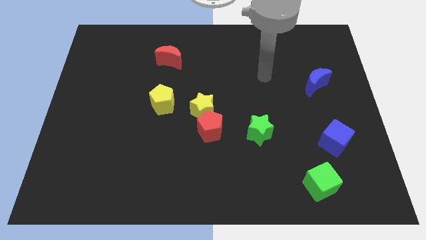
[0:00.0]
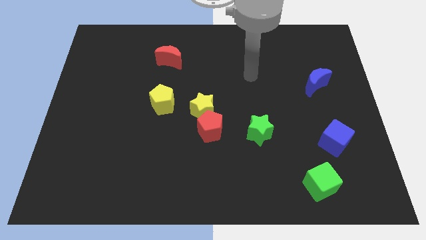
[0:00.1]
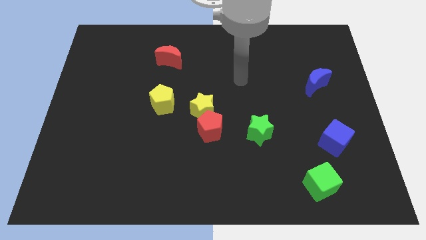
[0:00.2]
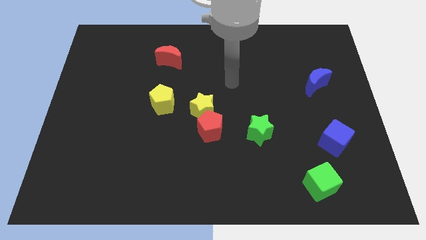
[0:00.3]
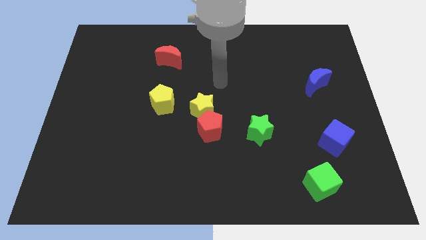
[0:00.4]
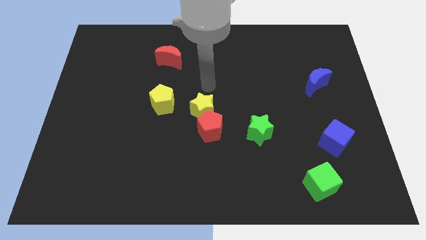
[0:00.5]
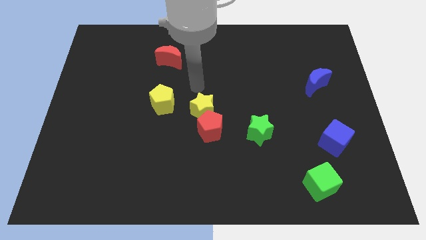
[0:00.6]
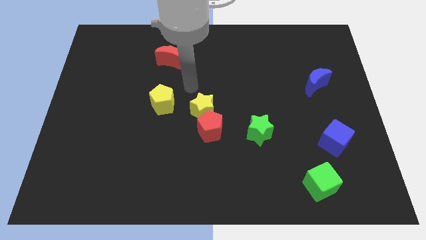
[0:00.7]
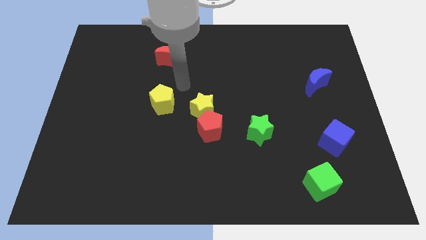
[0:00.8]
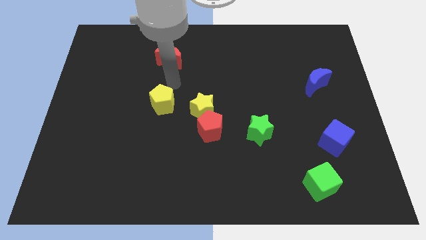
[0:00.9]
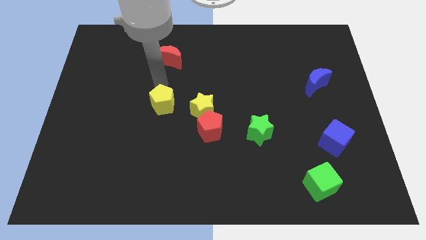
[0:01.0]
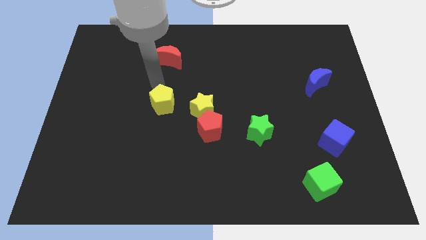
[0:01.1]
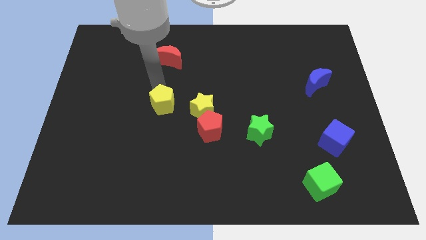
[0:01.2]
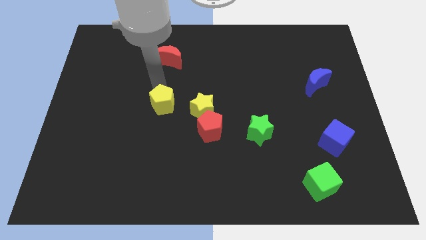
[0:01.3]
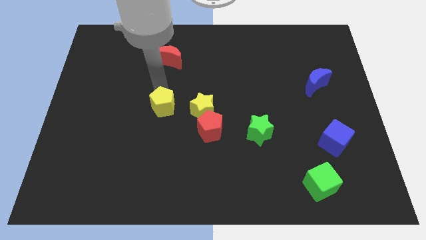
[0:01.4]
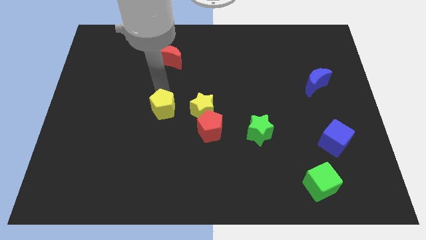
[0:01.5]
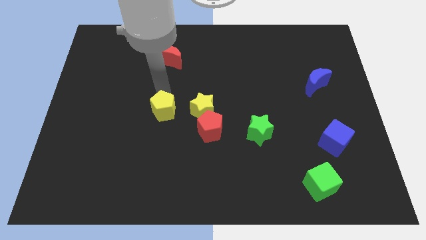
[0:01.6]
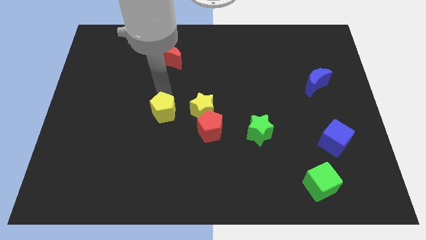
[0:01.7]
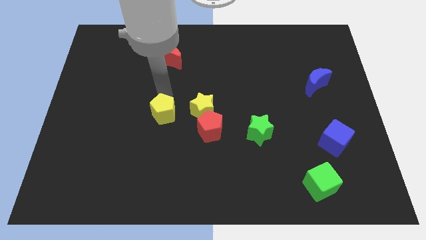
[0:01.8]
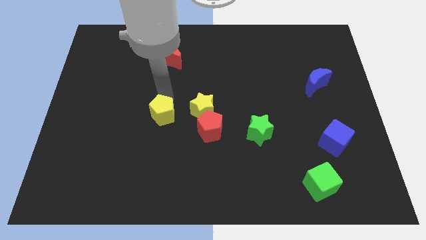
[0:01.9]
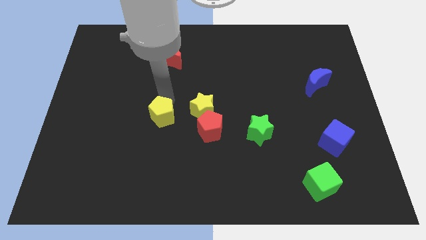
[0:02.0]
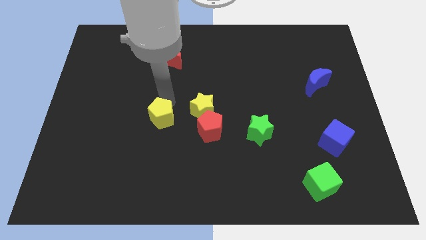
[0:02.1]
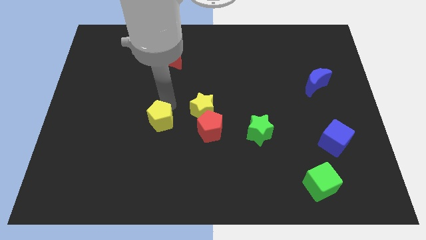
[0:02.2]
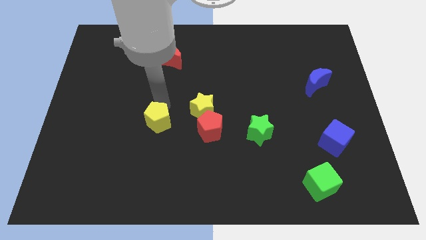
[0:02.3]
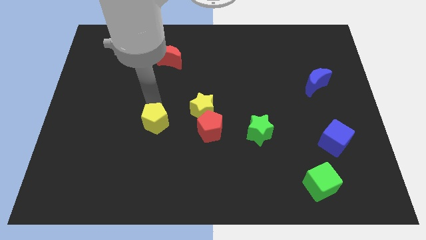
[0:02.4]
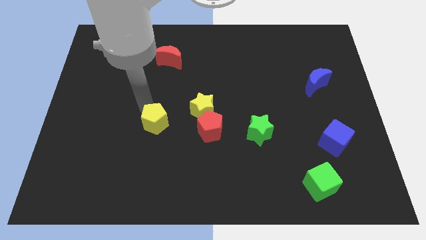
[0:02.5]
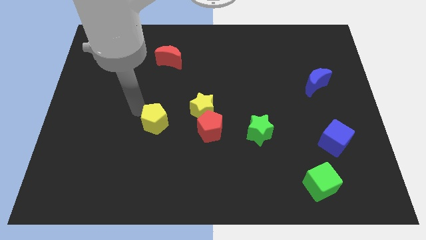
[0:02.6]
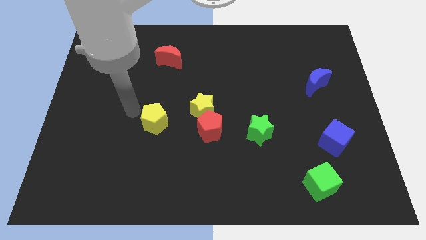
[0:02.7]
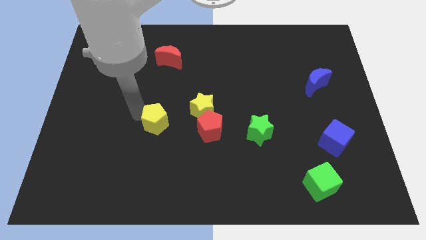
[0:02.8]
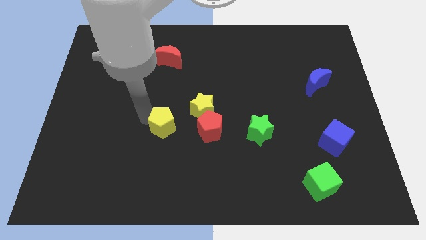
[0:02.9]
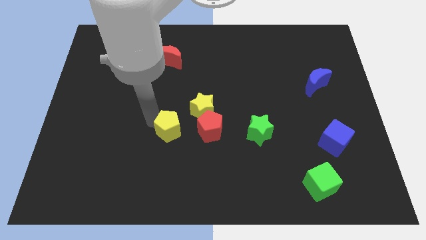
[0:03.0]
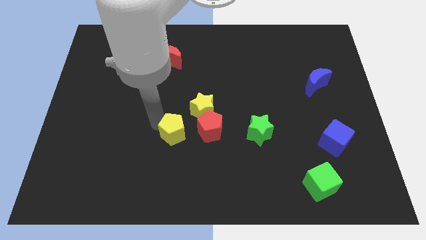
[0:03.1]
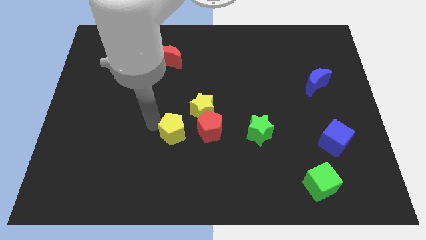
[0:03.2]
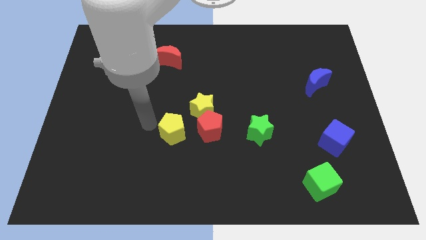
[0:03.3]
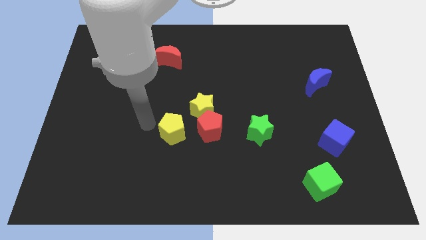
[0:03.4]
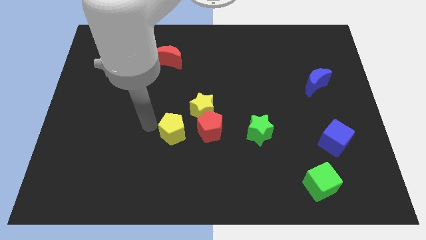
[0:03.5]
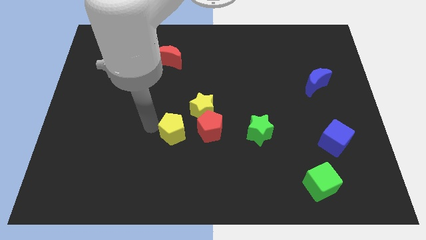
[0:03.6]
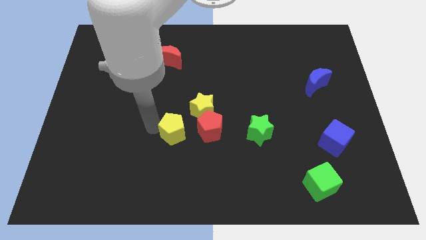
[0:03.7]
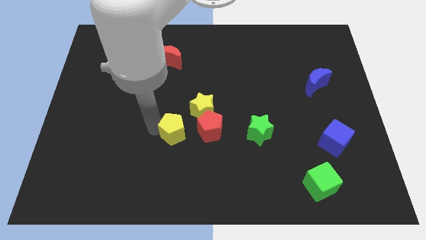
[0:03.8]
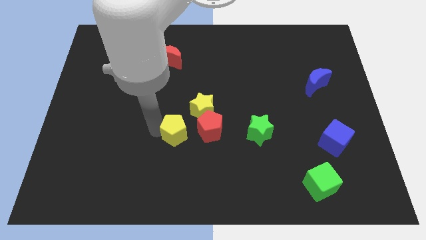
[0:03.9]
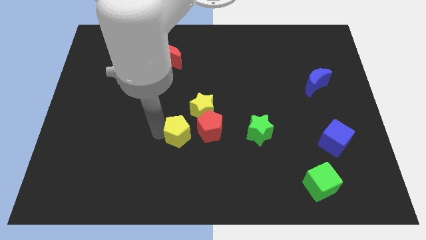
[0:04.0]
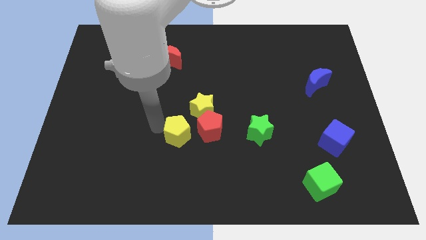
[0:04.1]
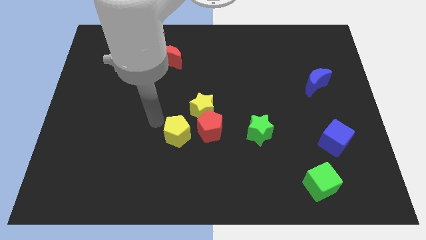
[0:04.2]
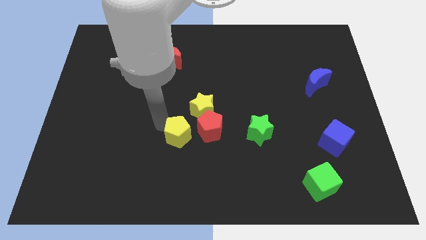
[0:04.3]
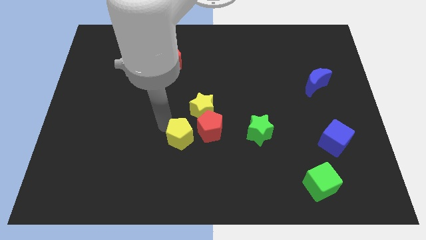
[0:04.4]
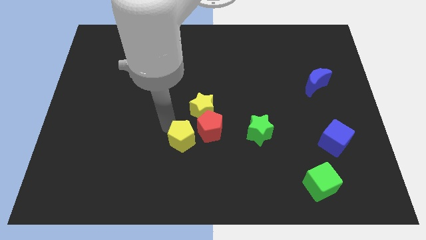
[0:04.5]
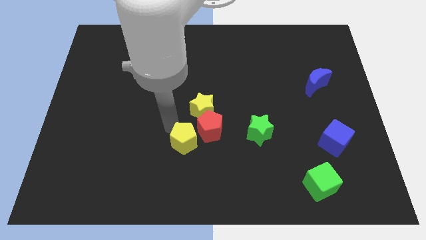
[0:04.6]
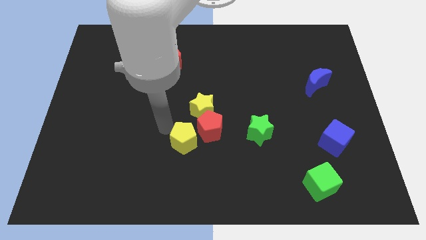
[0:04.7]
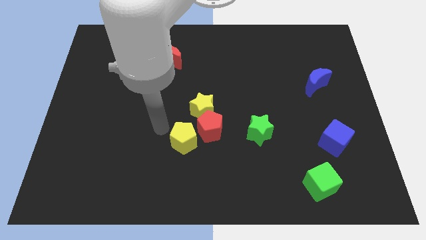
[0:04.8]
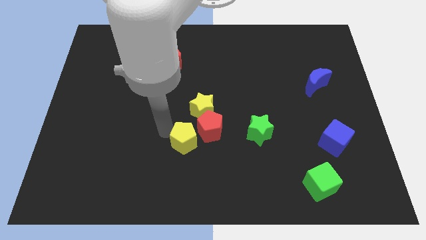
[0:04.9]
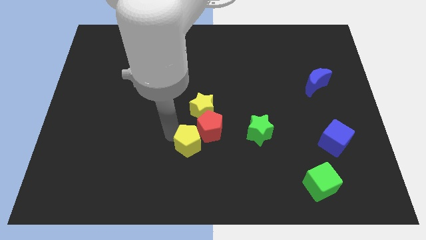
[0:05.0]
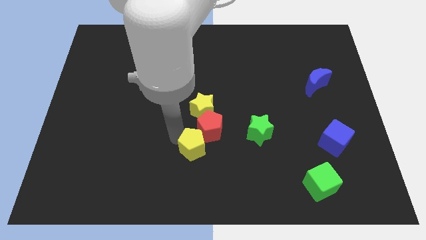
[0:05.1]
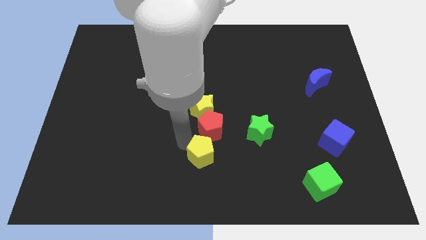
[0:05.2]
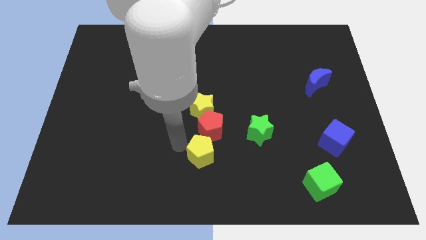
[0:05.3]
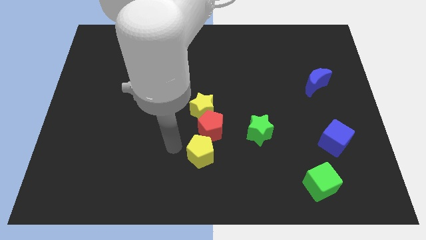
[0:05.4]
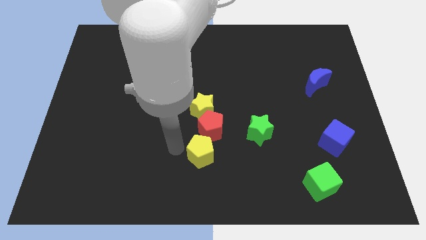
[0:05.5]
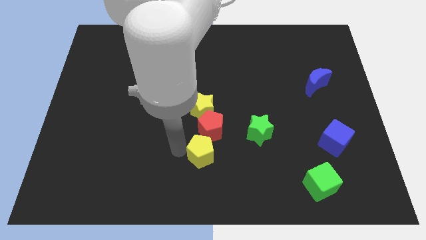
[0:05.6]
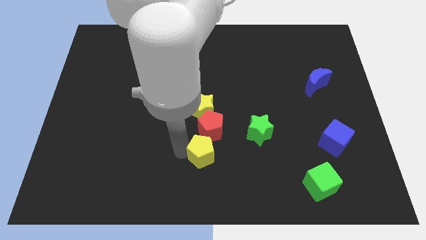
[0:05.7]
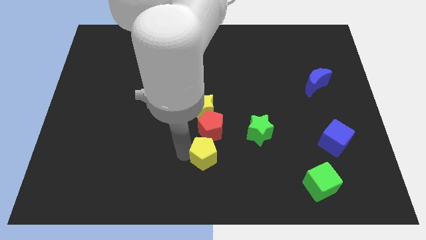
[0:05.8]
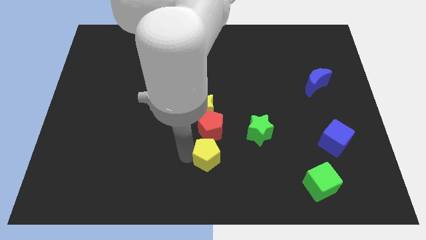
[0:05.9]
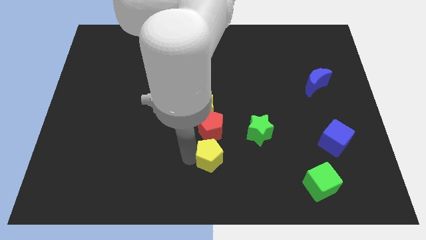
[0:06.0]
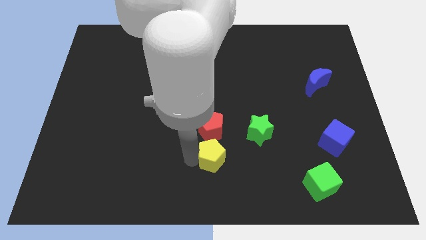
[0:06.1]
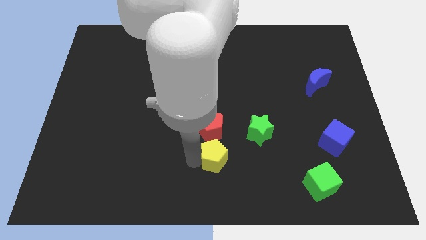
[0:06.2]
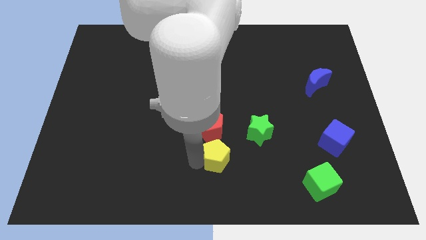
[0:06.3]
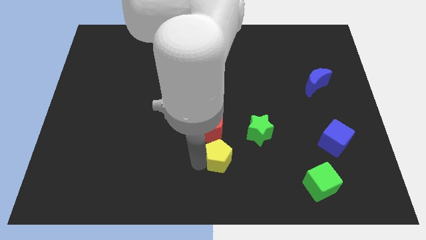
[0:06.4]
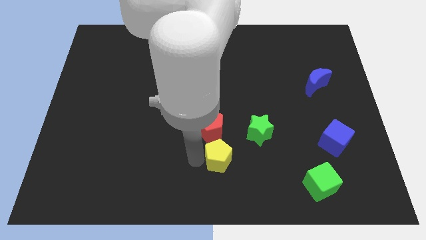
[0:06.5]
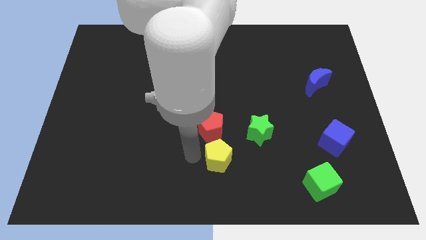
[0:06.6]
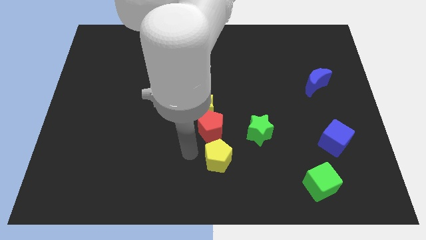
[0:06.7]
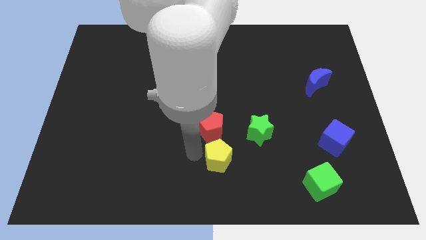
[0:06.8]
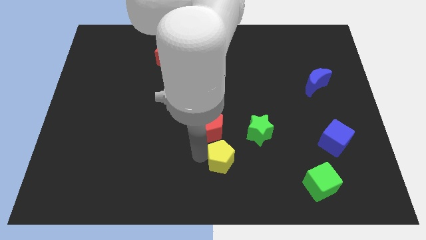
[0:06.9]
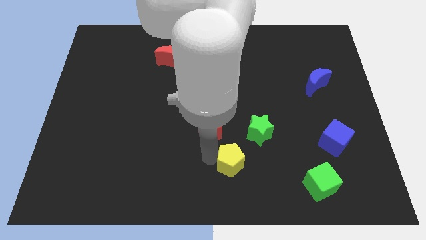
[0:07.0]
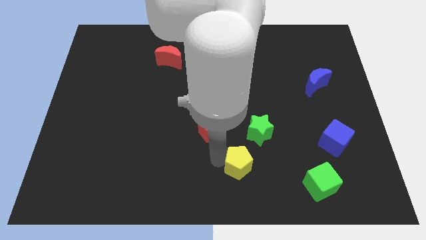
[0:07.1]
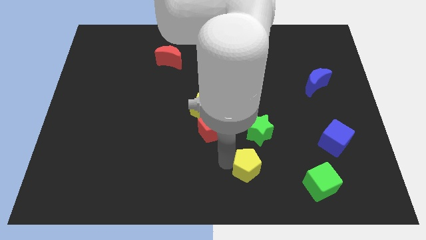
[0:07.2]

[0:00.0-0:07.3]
slide the yellow pentagon to the bottom of the green star

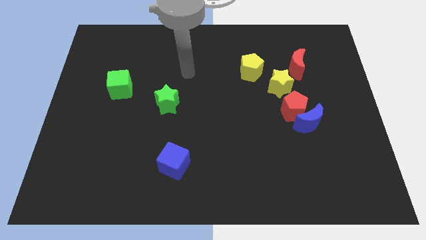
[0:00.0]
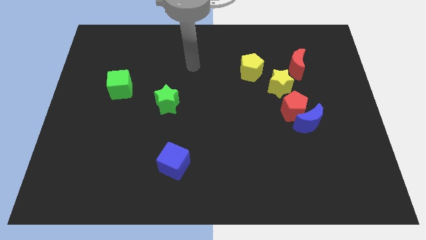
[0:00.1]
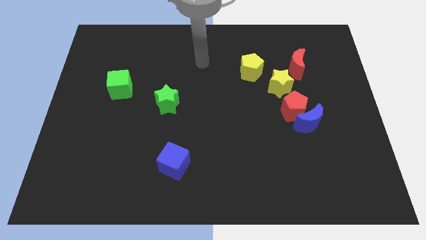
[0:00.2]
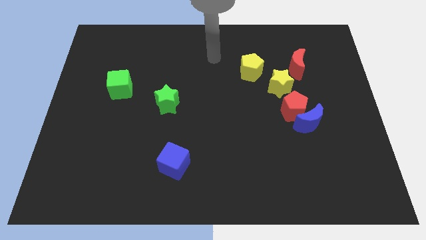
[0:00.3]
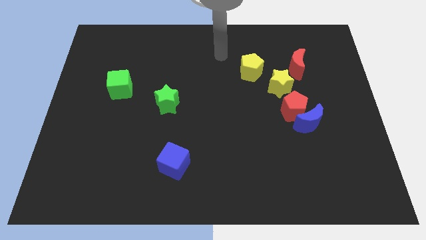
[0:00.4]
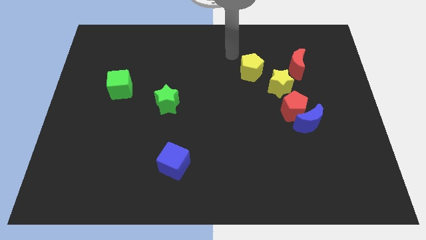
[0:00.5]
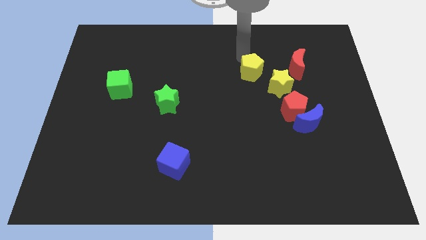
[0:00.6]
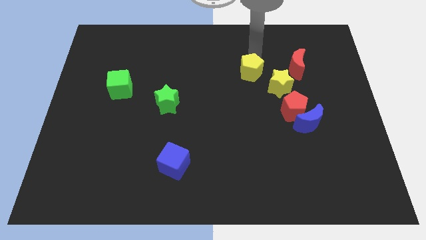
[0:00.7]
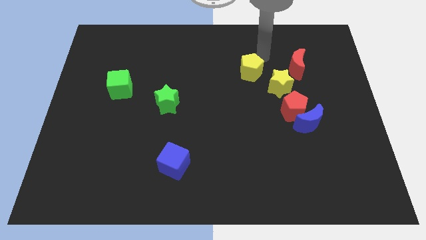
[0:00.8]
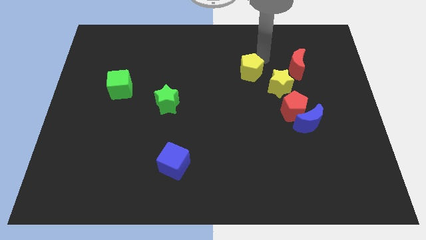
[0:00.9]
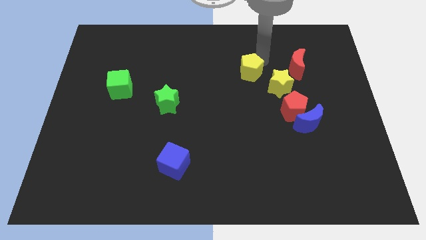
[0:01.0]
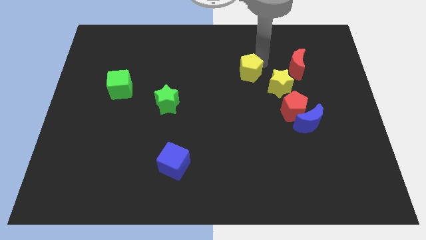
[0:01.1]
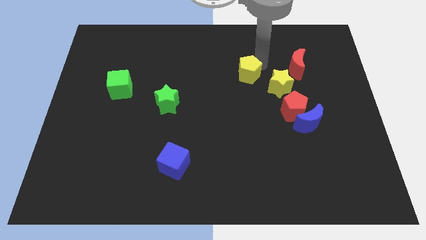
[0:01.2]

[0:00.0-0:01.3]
move the yellow pentagon to the left of the yellow star
